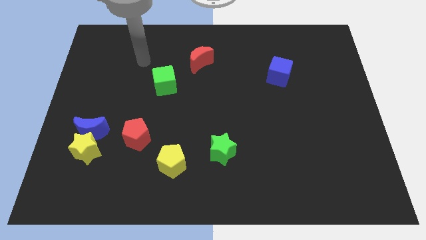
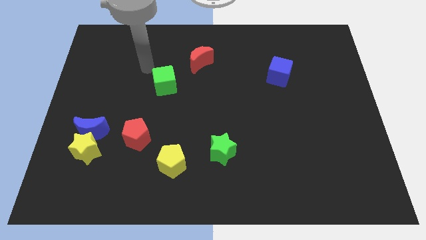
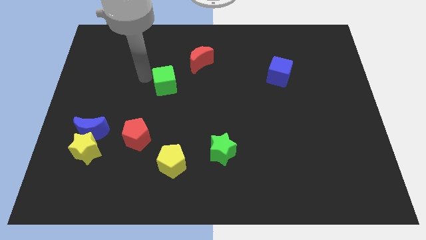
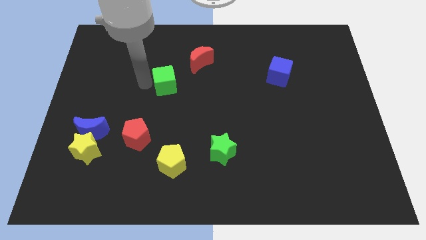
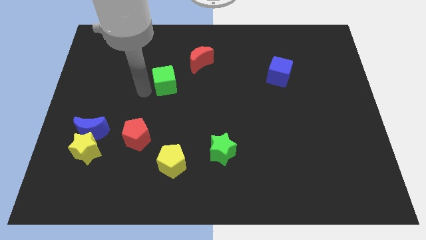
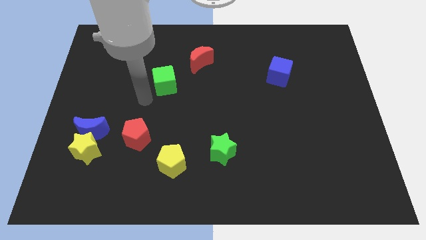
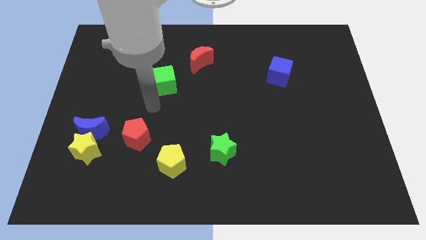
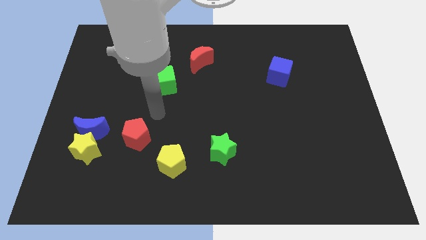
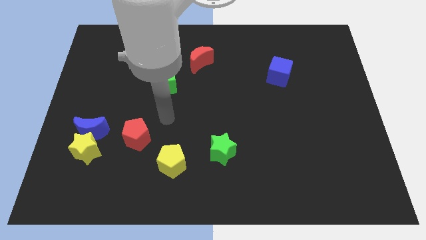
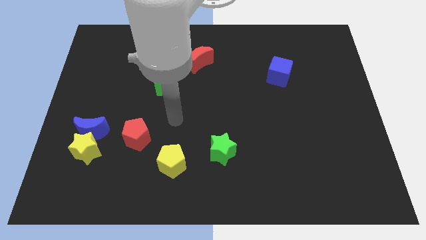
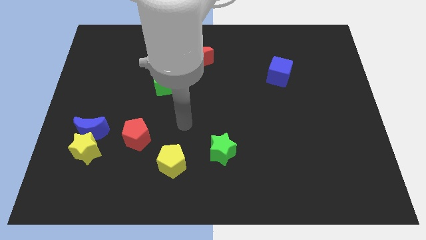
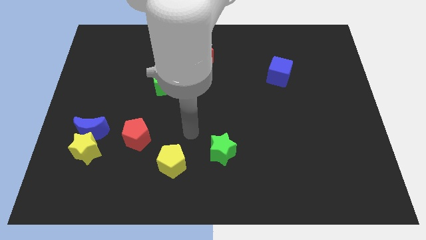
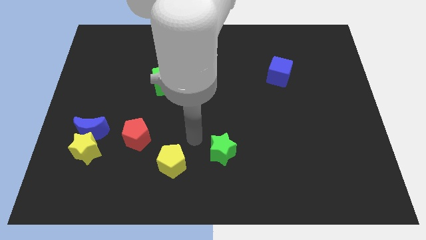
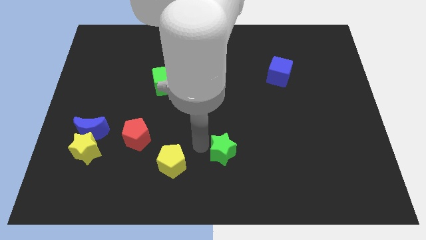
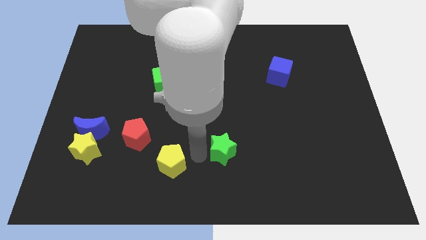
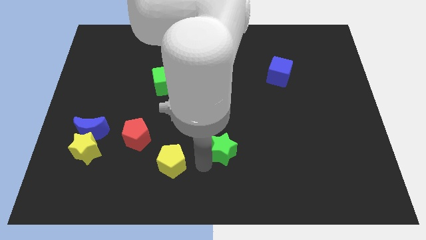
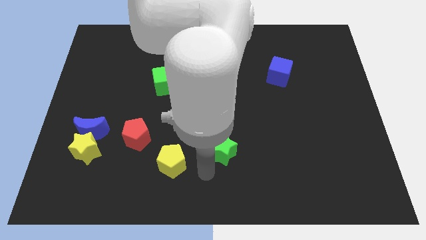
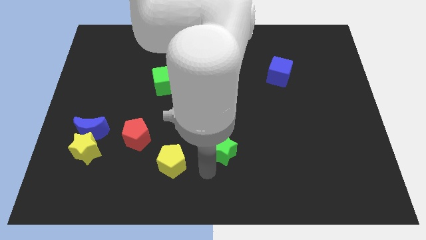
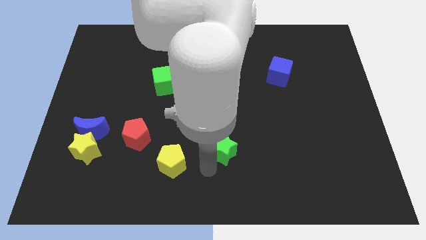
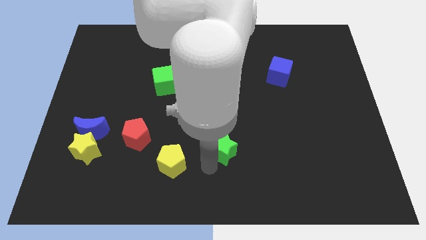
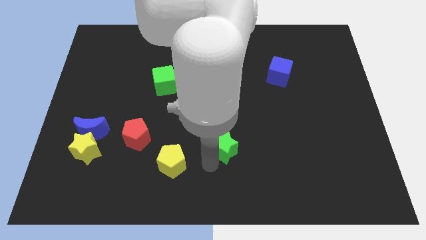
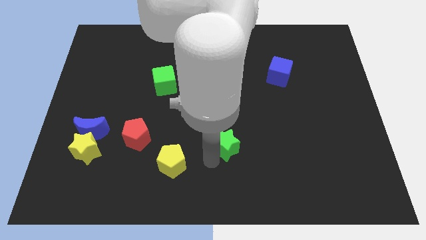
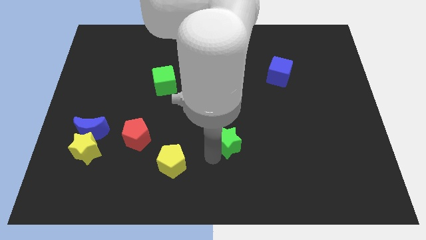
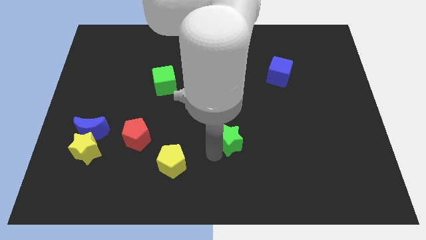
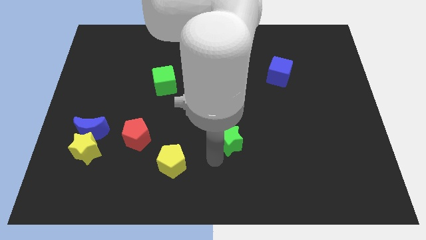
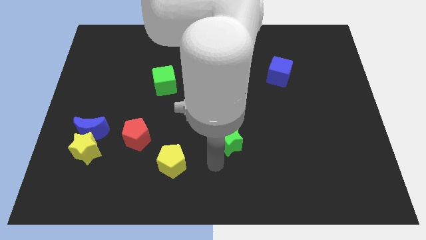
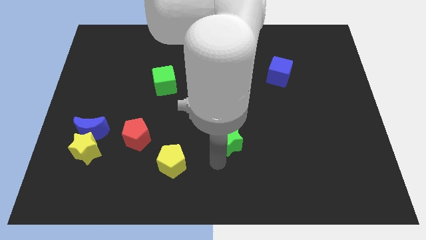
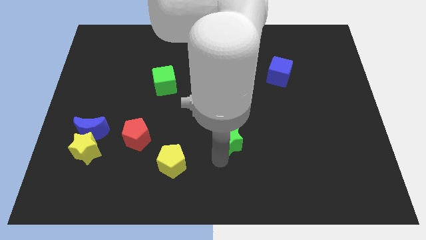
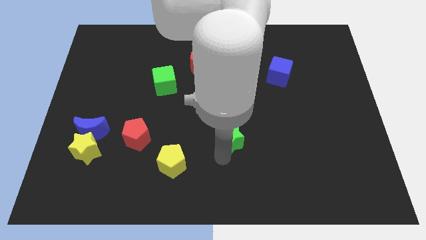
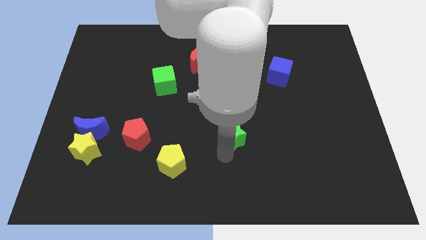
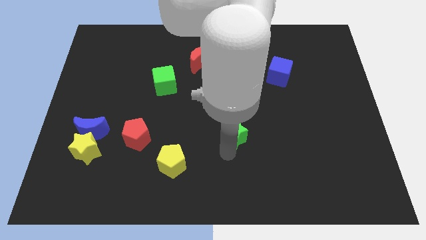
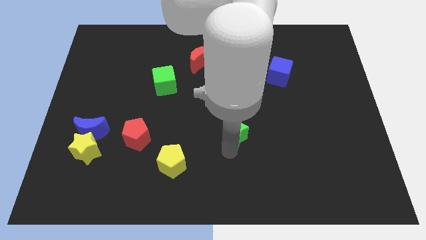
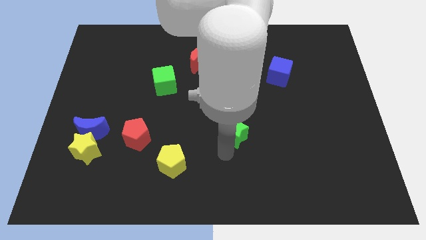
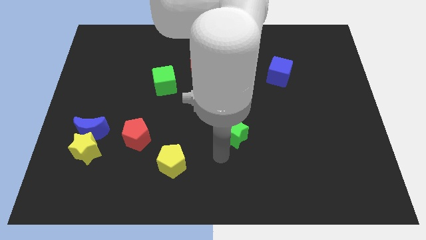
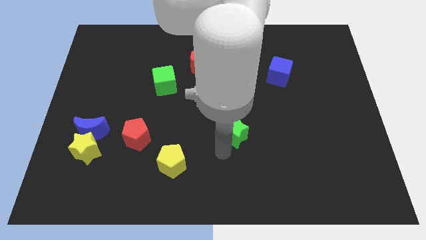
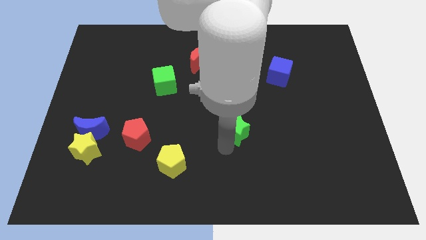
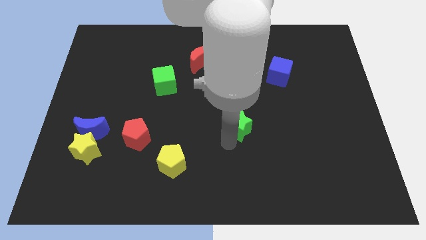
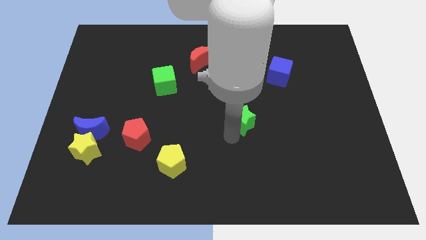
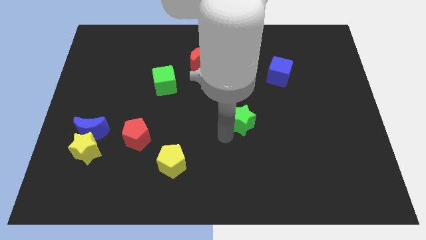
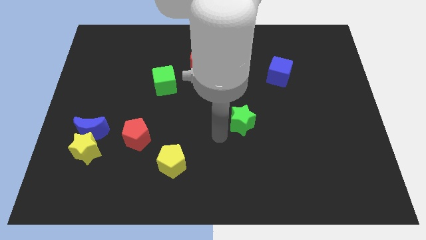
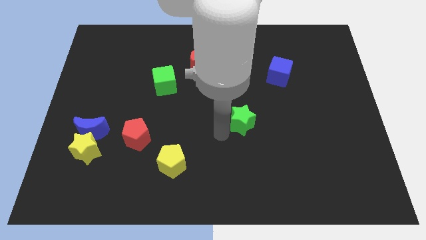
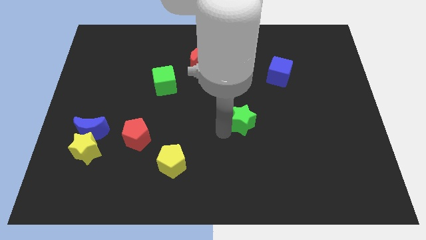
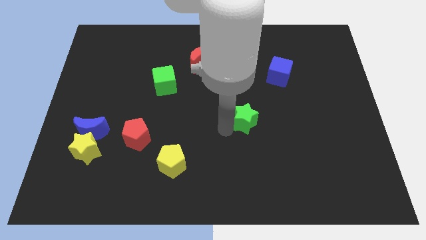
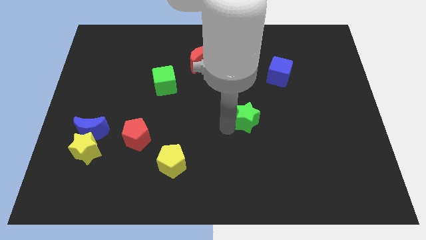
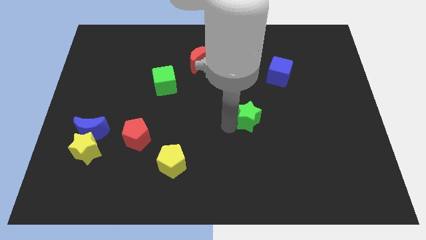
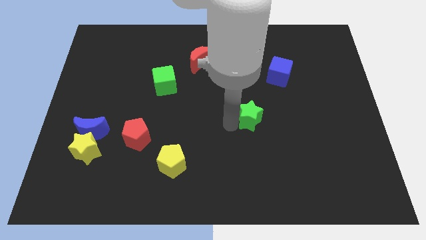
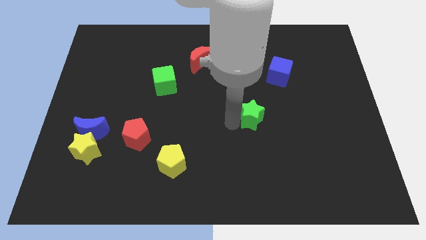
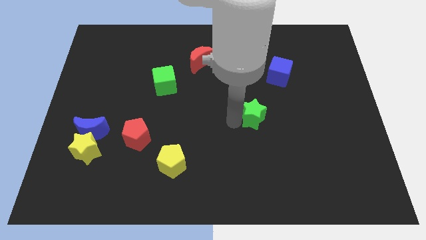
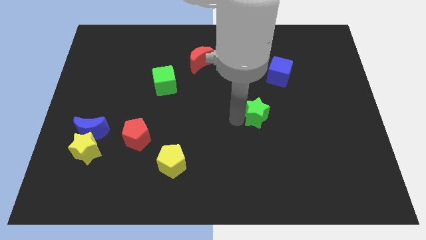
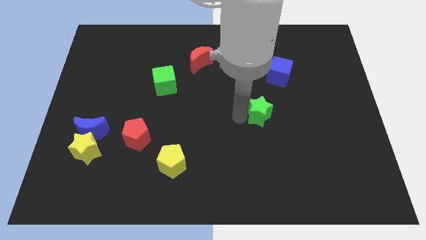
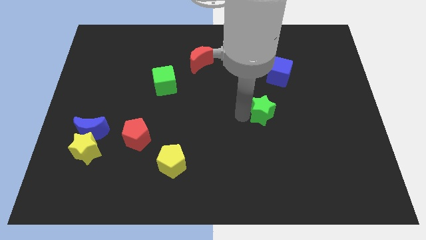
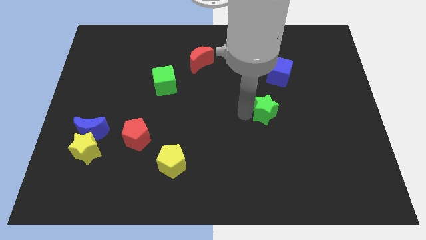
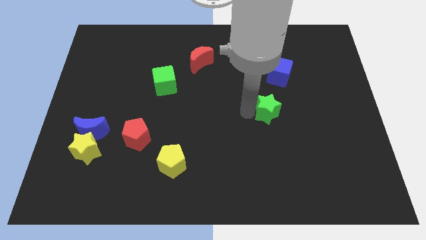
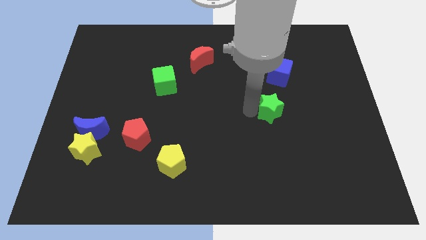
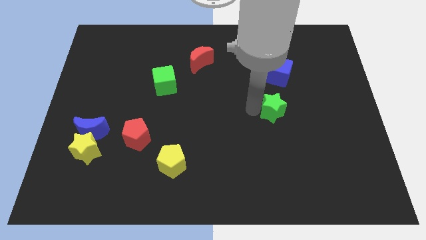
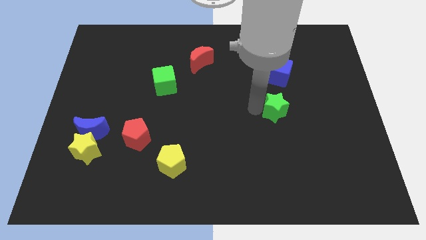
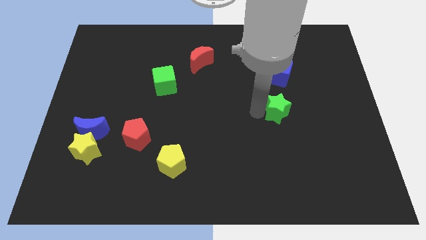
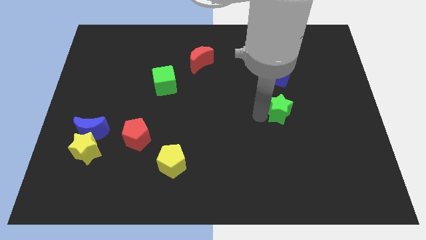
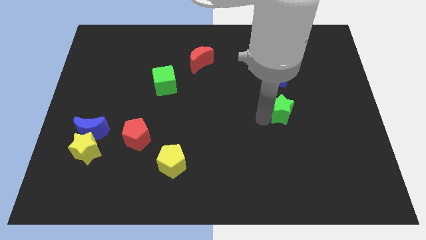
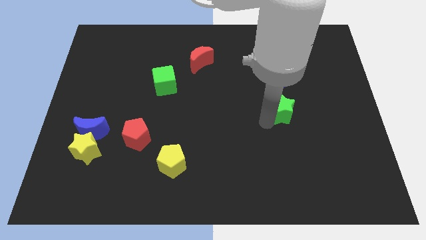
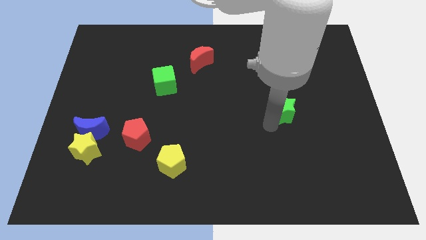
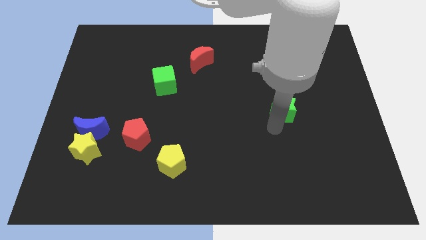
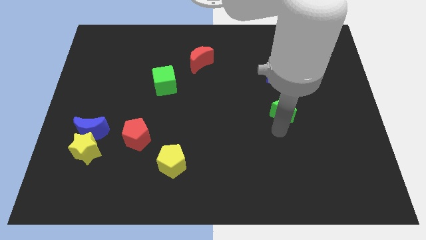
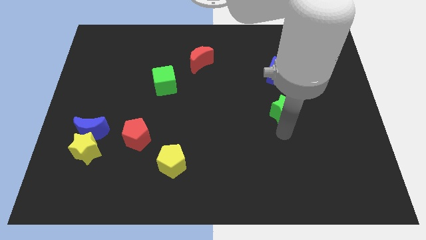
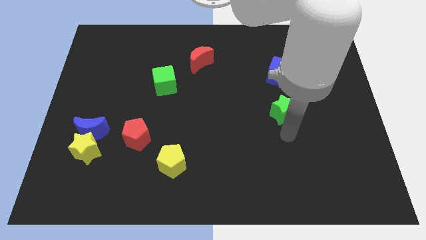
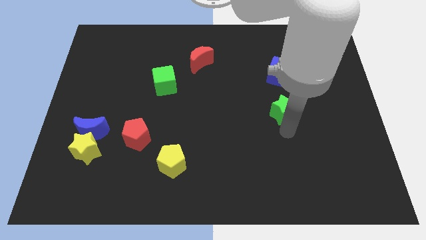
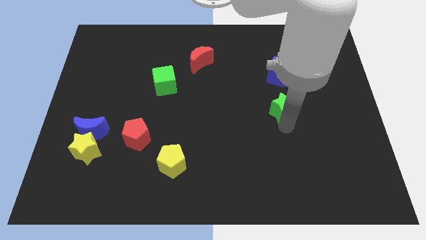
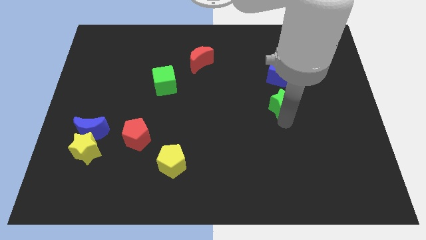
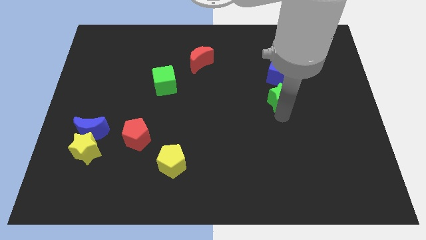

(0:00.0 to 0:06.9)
push the green star up and then to the right

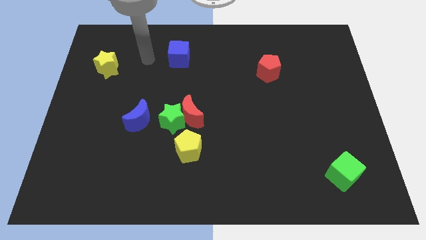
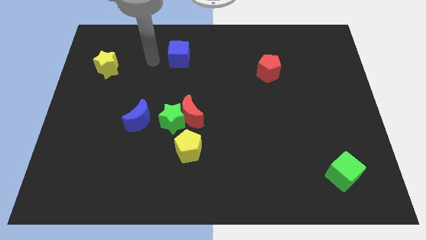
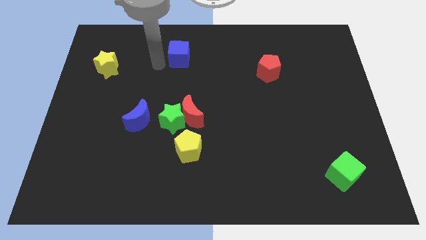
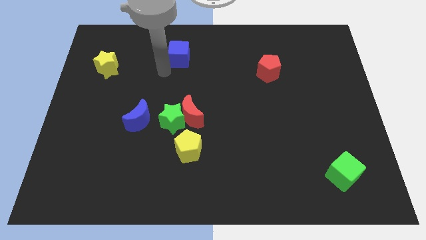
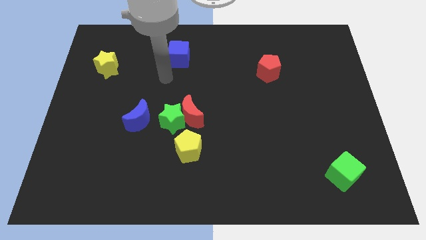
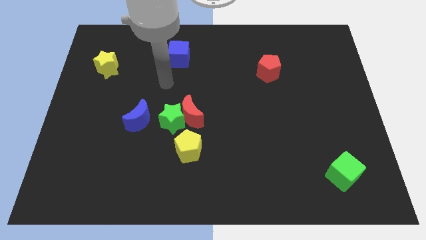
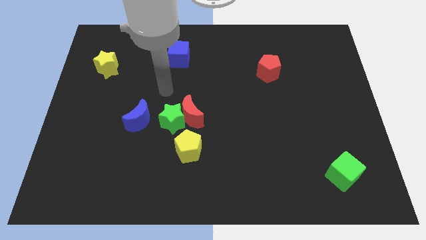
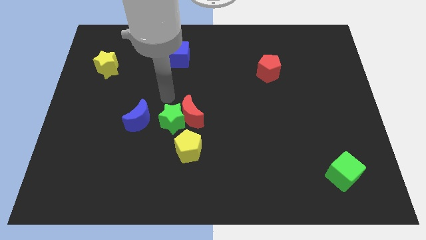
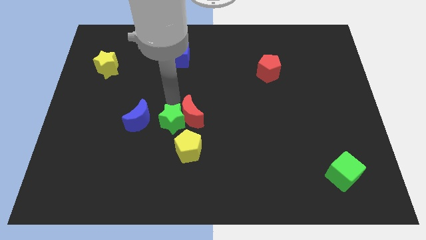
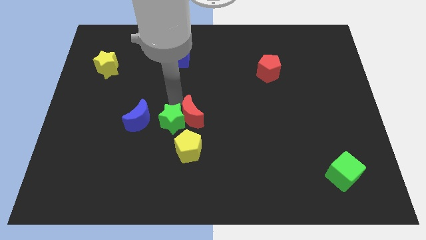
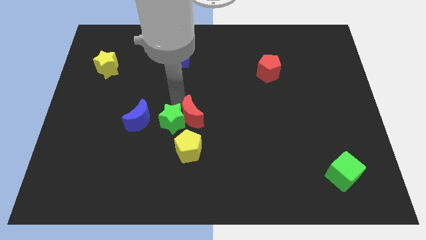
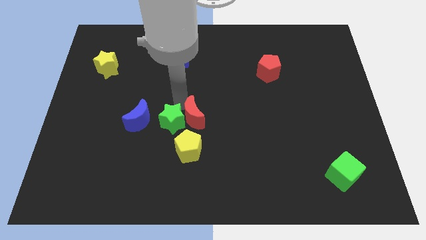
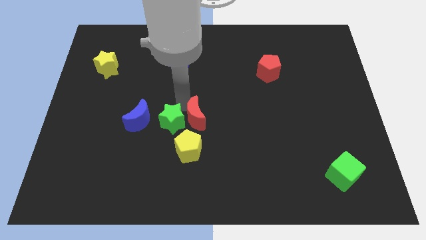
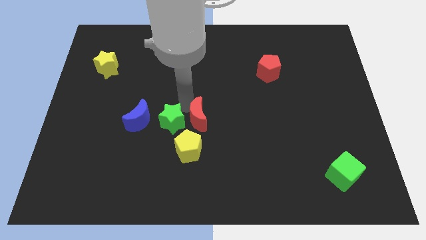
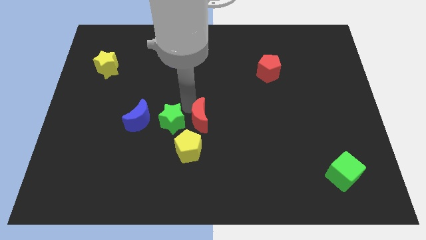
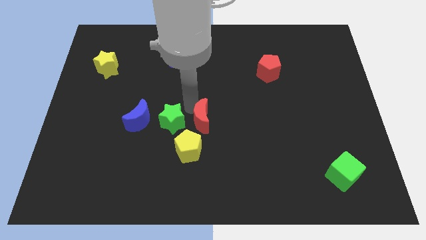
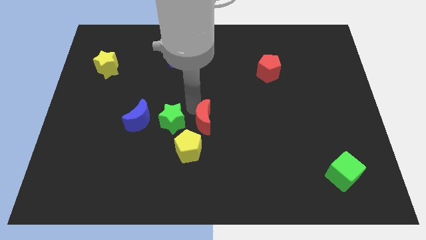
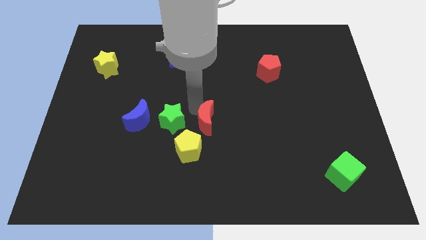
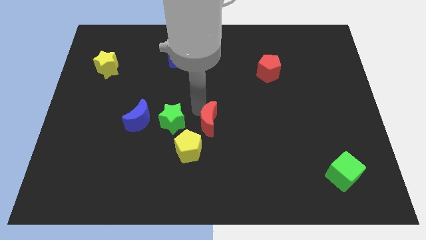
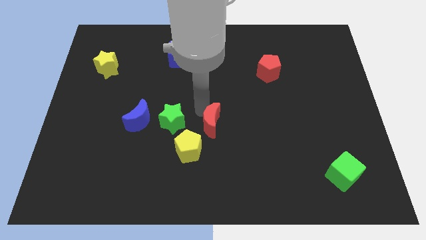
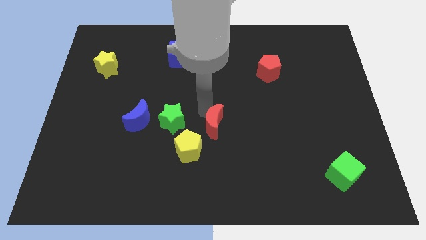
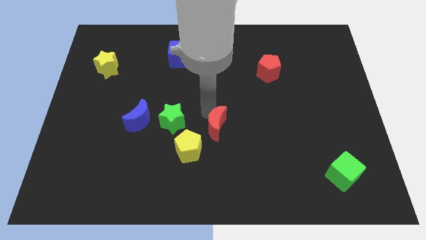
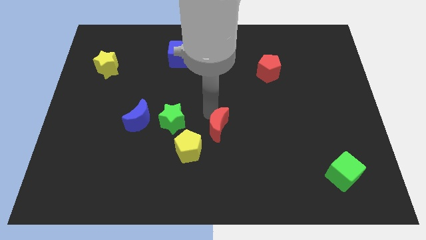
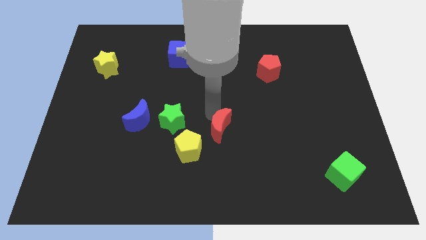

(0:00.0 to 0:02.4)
slide the red moon a little bit down and then right
